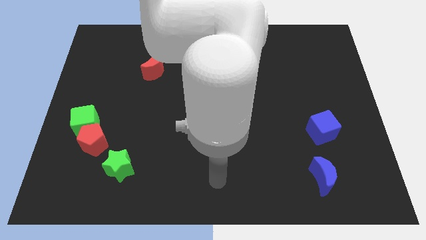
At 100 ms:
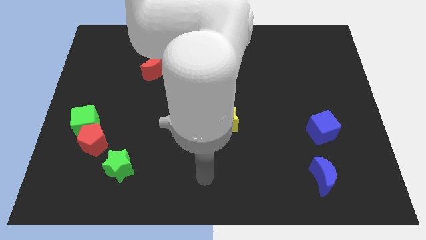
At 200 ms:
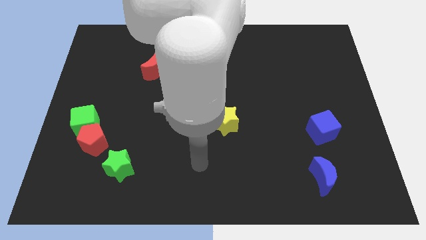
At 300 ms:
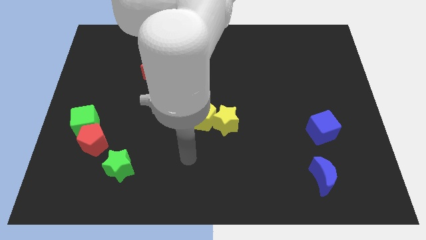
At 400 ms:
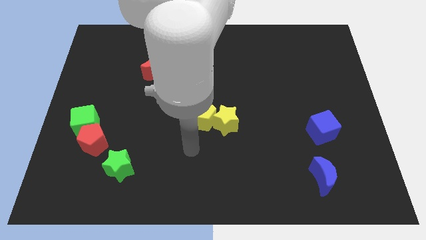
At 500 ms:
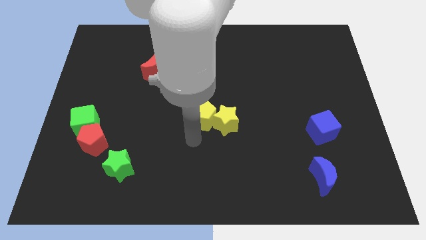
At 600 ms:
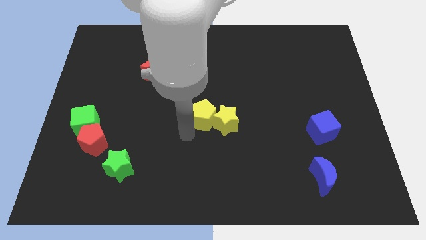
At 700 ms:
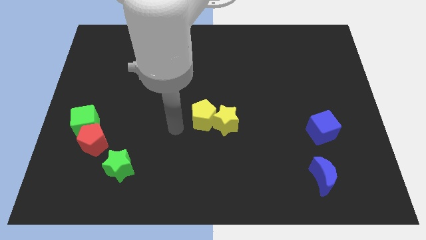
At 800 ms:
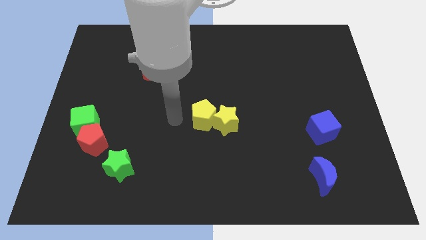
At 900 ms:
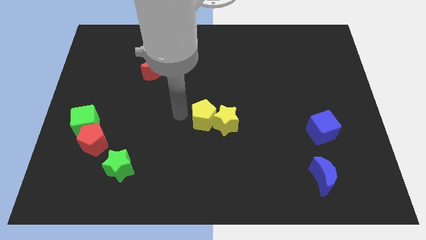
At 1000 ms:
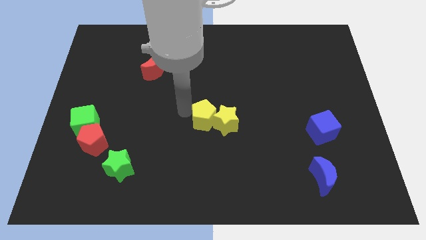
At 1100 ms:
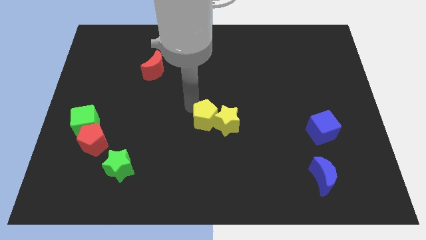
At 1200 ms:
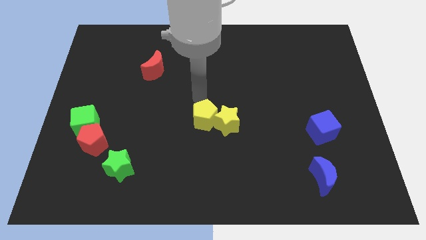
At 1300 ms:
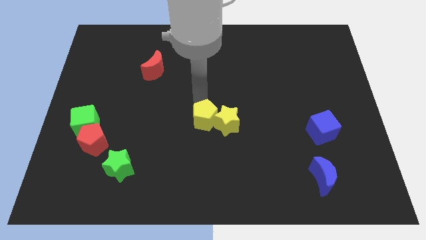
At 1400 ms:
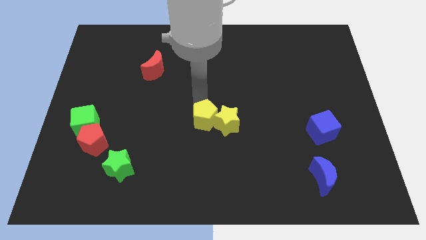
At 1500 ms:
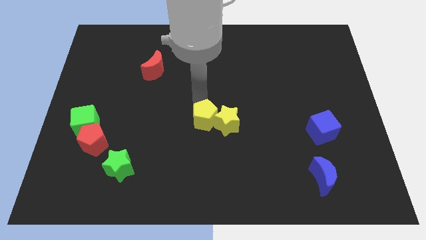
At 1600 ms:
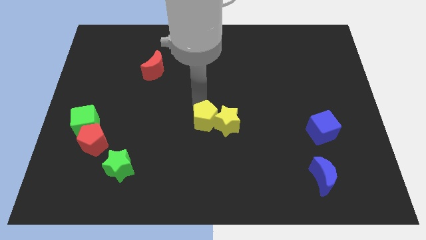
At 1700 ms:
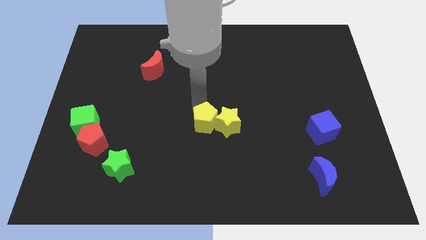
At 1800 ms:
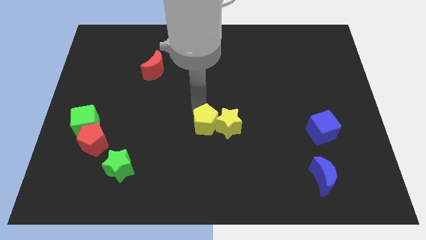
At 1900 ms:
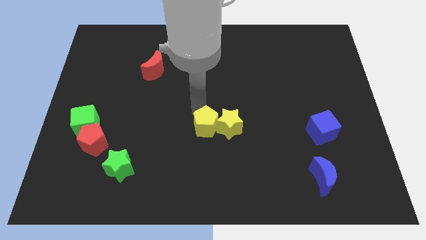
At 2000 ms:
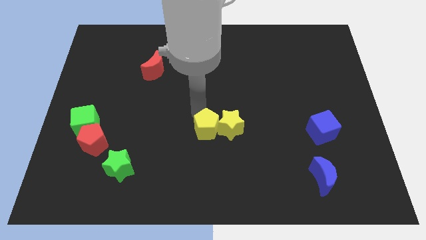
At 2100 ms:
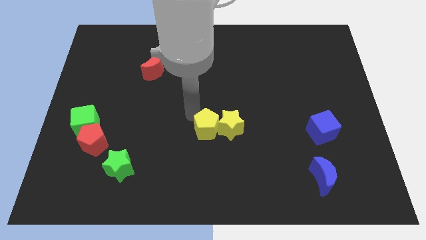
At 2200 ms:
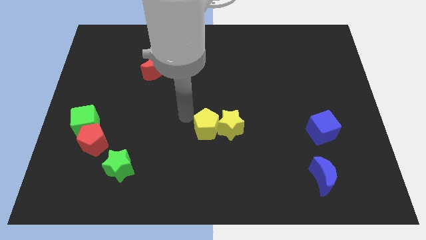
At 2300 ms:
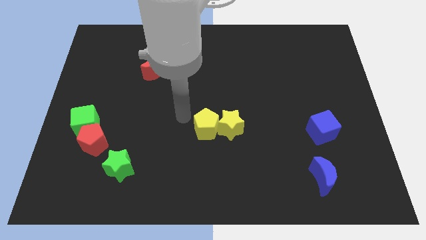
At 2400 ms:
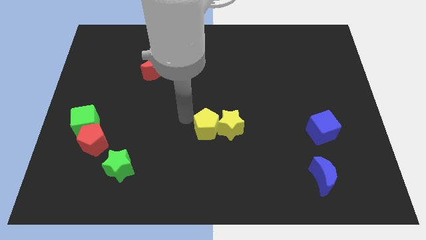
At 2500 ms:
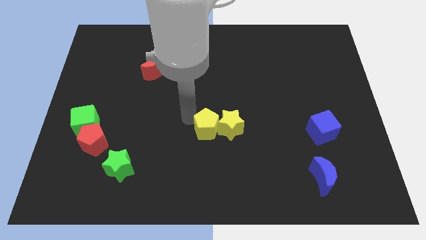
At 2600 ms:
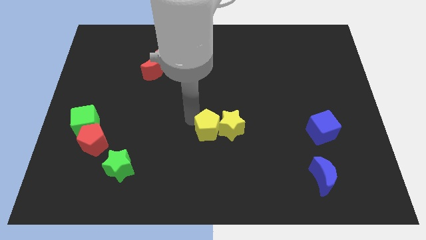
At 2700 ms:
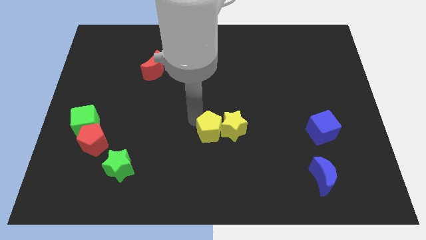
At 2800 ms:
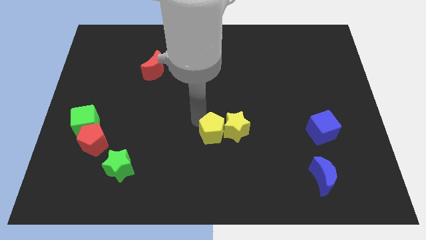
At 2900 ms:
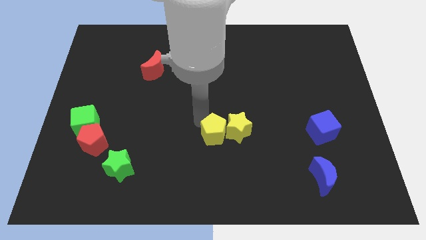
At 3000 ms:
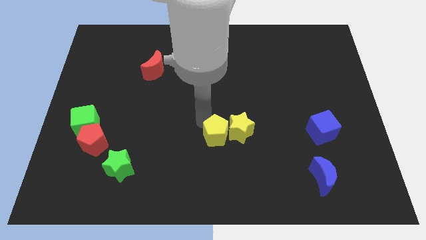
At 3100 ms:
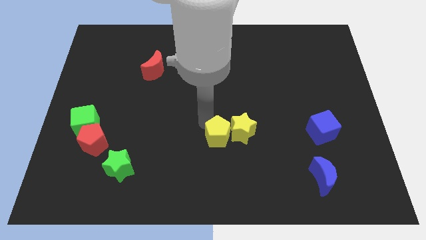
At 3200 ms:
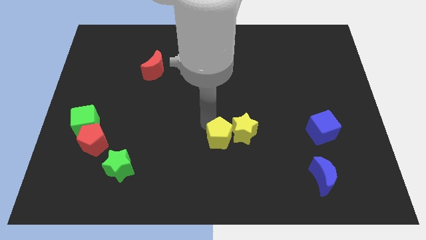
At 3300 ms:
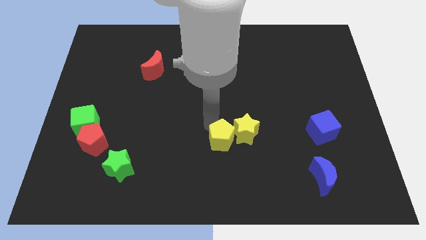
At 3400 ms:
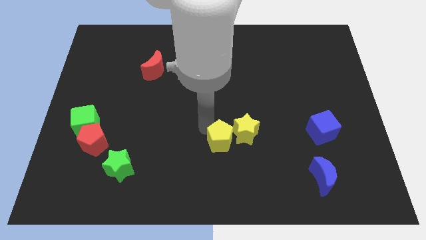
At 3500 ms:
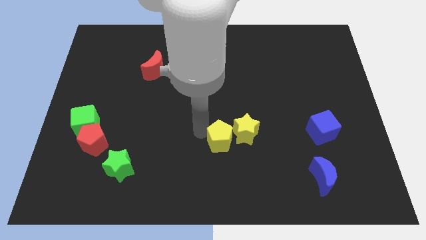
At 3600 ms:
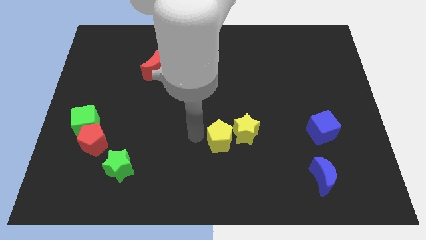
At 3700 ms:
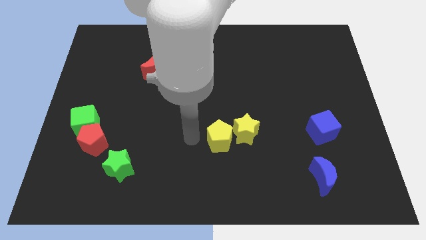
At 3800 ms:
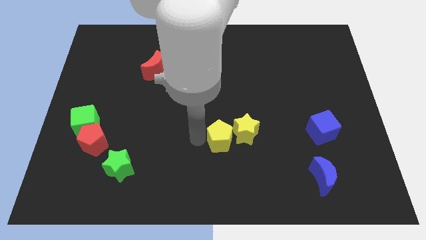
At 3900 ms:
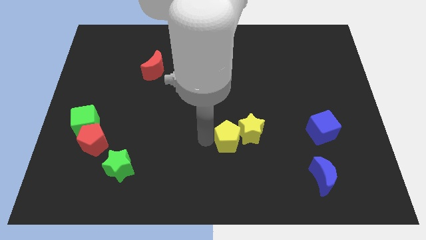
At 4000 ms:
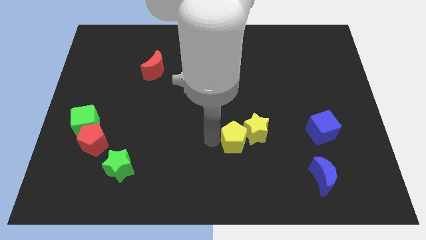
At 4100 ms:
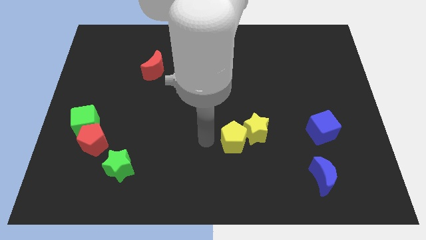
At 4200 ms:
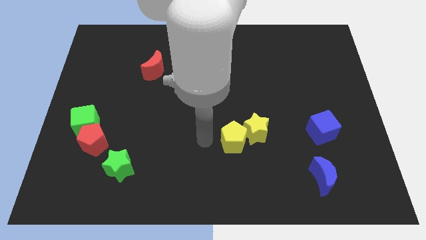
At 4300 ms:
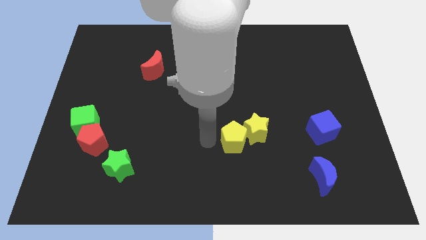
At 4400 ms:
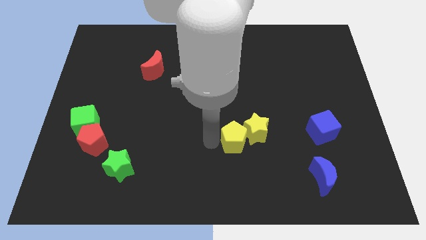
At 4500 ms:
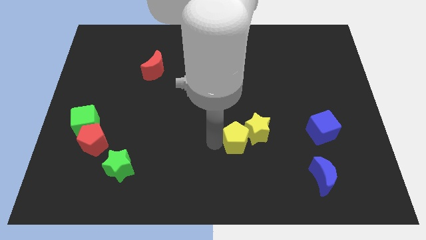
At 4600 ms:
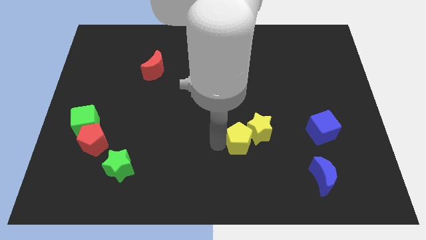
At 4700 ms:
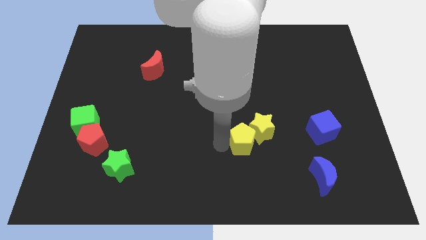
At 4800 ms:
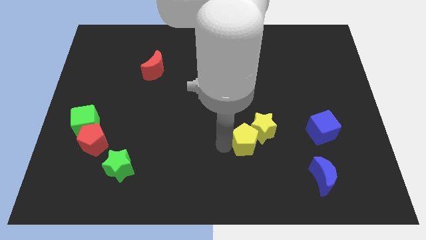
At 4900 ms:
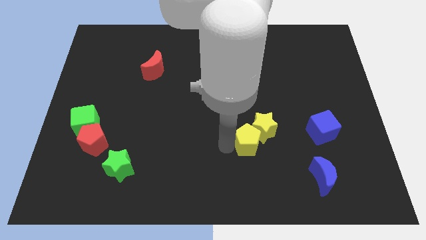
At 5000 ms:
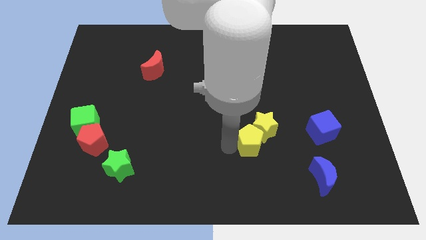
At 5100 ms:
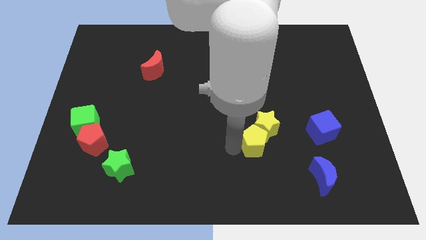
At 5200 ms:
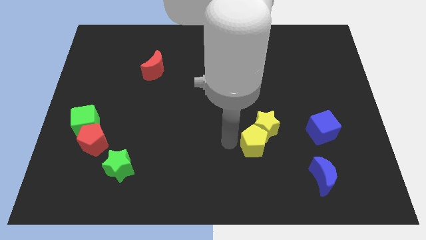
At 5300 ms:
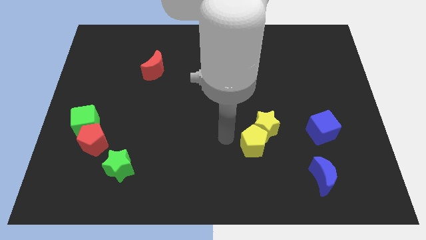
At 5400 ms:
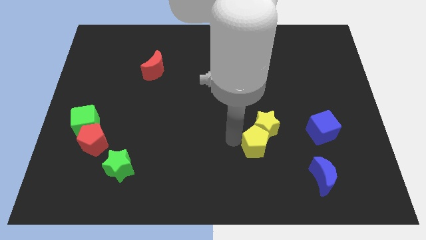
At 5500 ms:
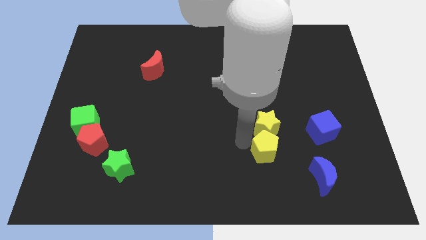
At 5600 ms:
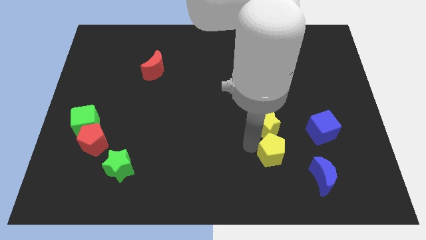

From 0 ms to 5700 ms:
put the yellow pentagon to the top left side of the blue moon

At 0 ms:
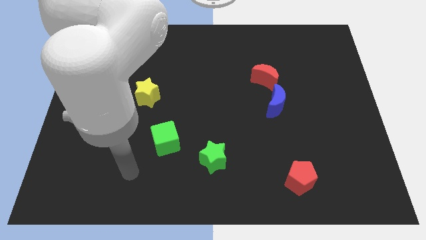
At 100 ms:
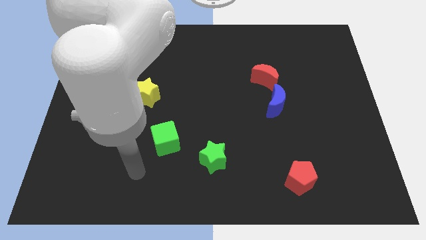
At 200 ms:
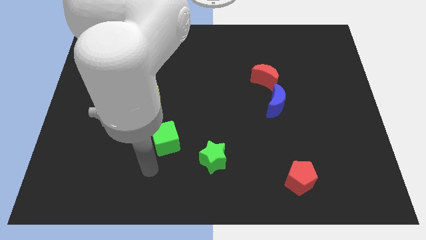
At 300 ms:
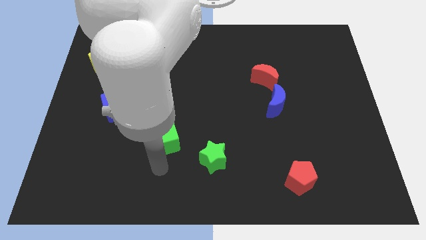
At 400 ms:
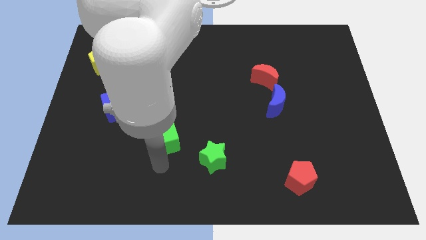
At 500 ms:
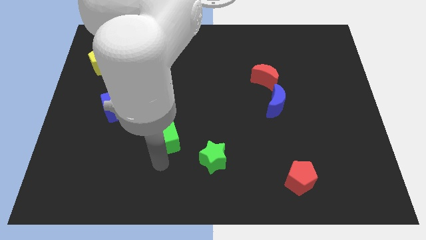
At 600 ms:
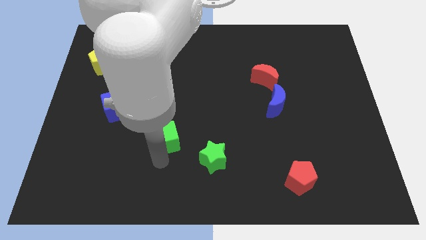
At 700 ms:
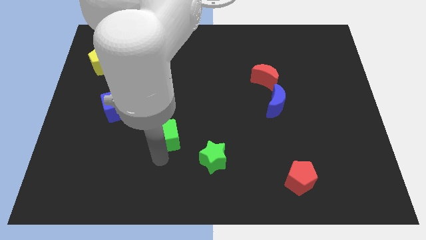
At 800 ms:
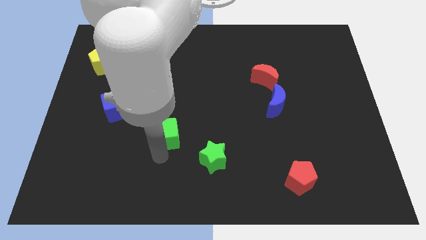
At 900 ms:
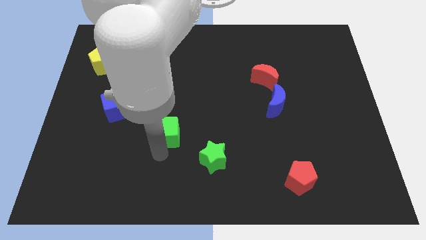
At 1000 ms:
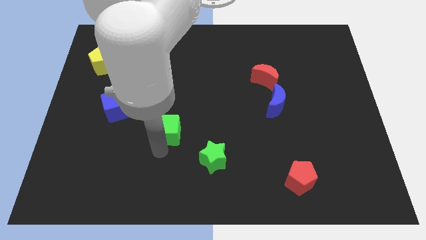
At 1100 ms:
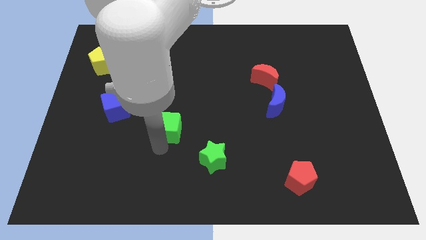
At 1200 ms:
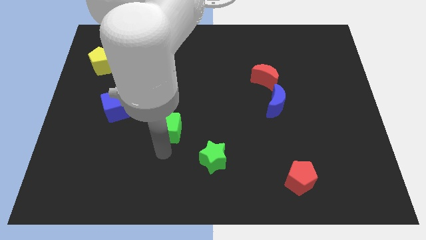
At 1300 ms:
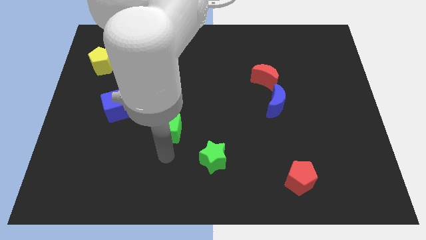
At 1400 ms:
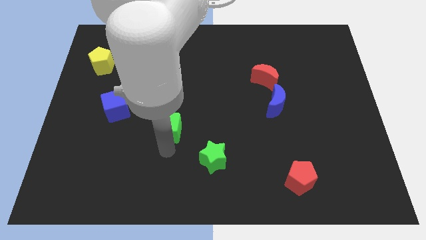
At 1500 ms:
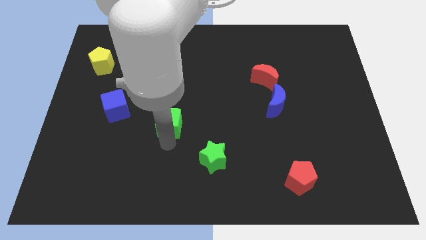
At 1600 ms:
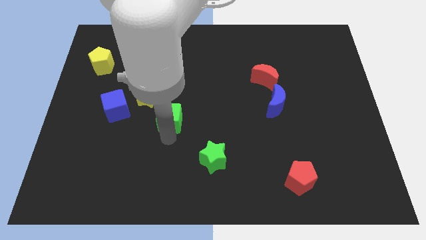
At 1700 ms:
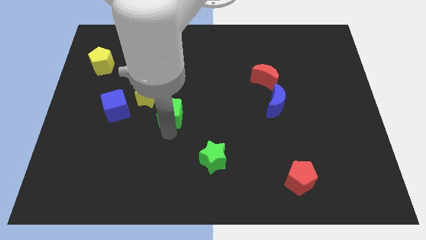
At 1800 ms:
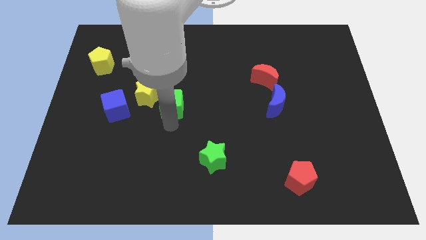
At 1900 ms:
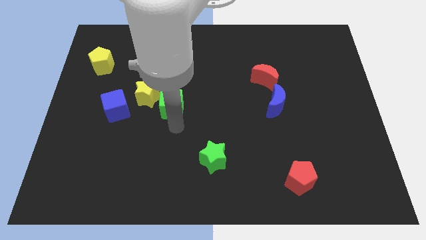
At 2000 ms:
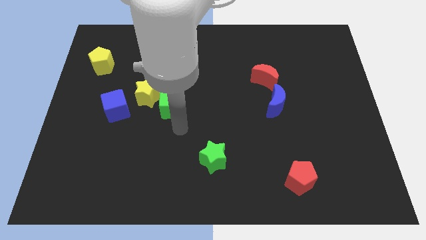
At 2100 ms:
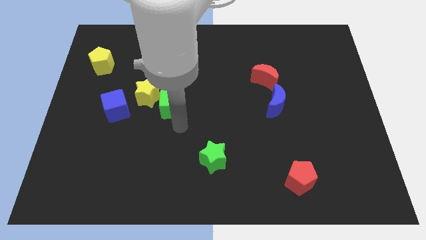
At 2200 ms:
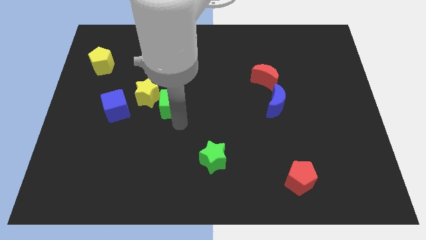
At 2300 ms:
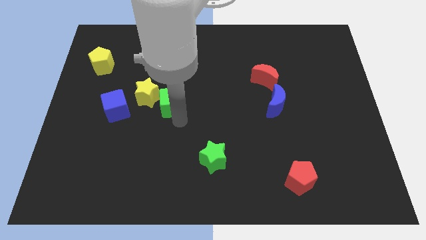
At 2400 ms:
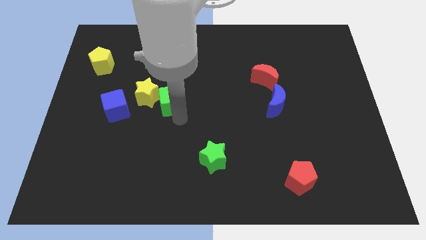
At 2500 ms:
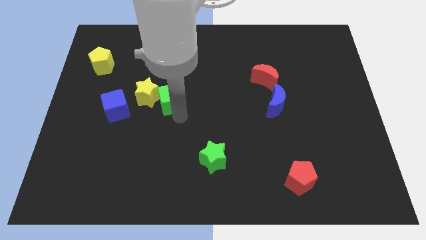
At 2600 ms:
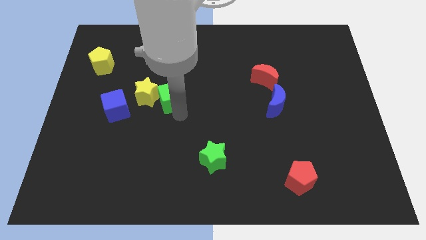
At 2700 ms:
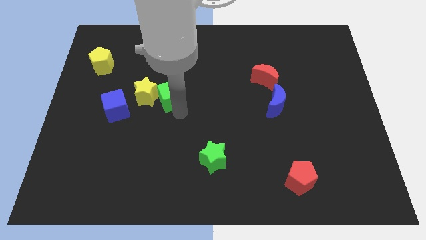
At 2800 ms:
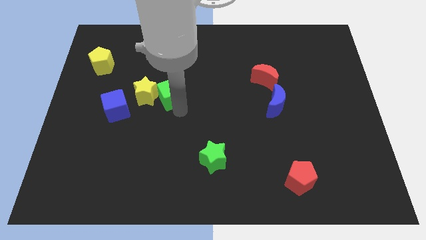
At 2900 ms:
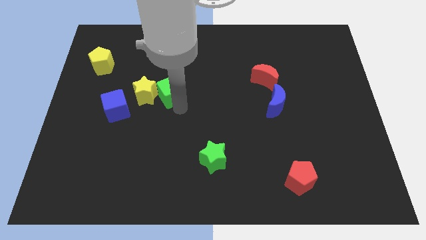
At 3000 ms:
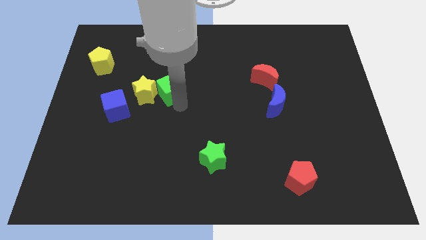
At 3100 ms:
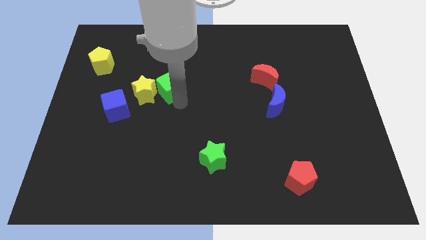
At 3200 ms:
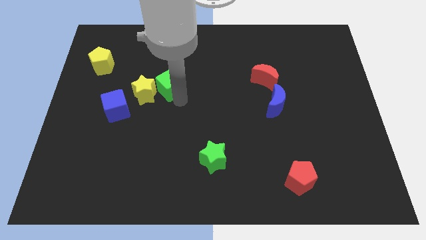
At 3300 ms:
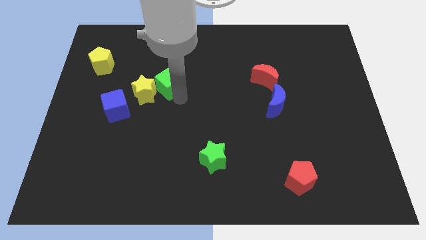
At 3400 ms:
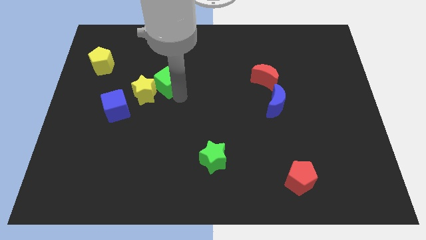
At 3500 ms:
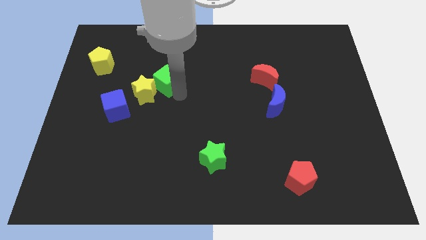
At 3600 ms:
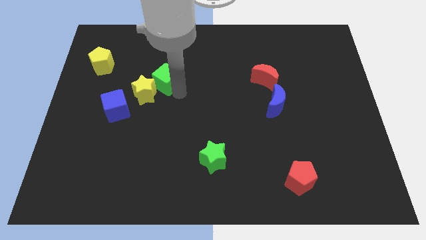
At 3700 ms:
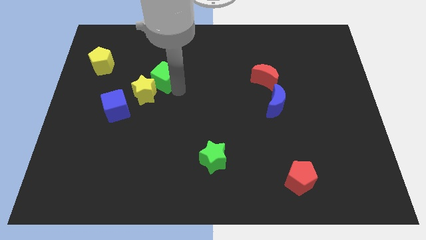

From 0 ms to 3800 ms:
slide the green cube above the yellow star
